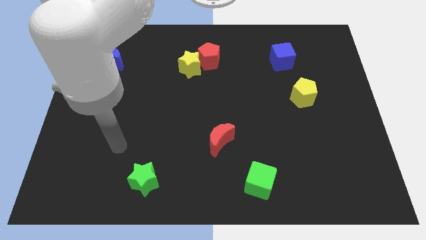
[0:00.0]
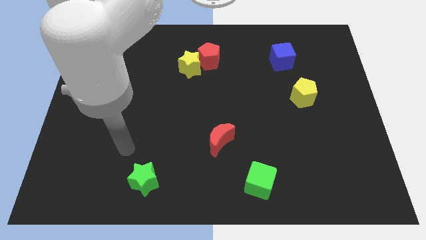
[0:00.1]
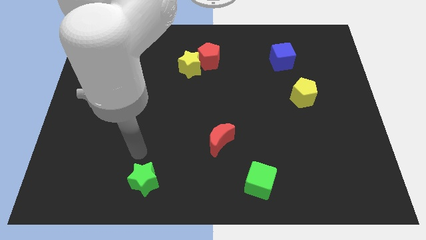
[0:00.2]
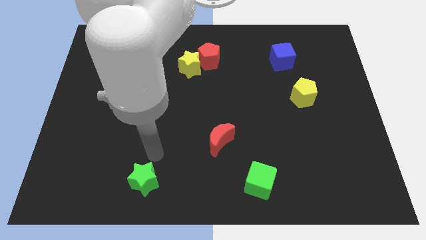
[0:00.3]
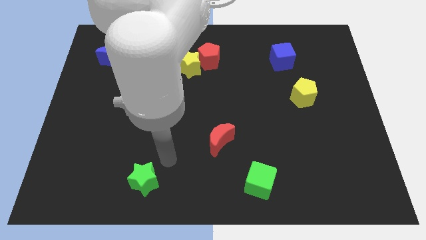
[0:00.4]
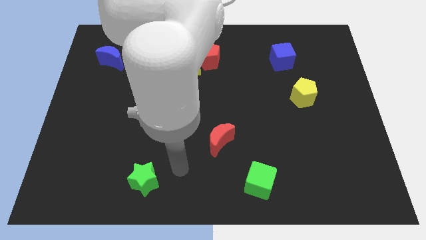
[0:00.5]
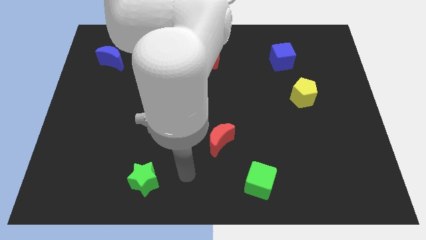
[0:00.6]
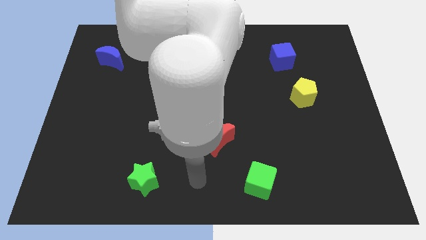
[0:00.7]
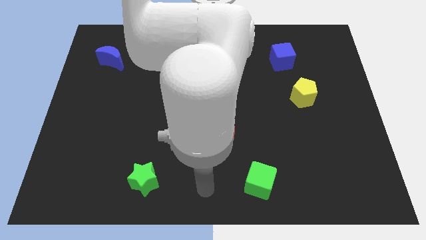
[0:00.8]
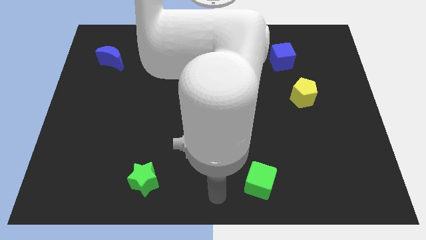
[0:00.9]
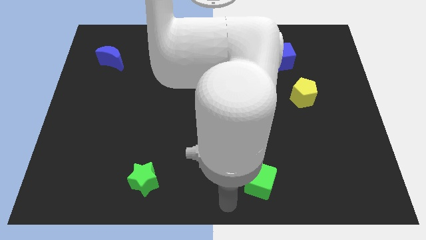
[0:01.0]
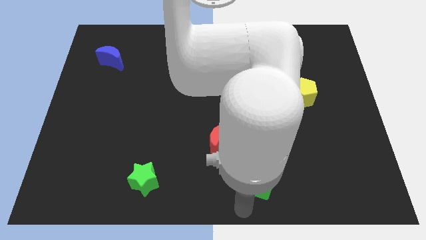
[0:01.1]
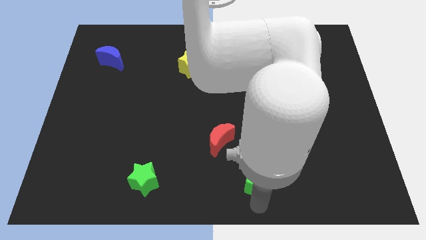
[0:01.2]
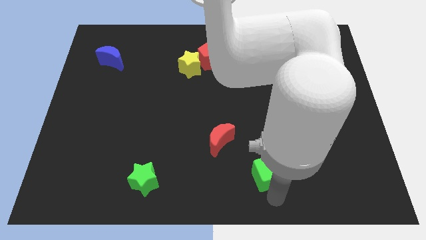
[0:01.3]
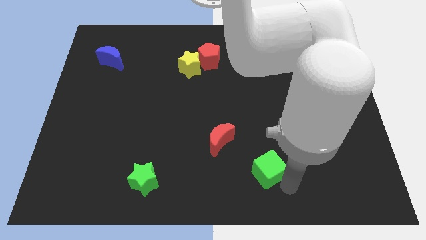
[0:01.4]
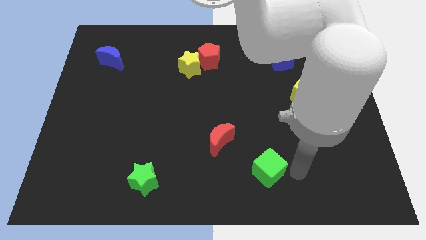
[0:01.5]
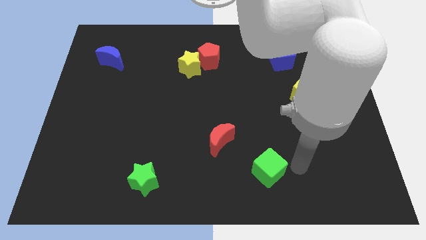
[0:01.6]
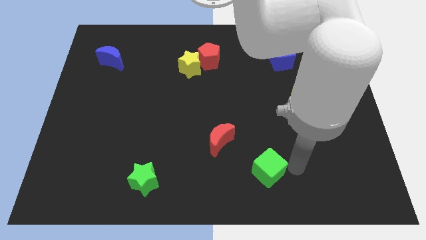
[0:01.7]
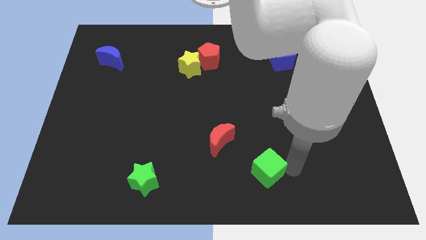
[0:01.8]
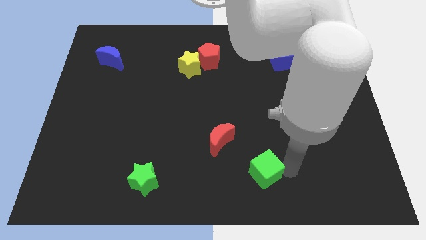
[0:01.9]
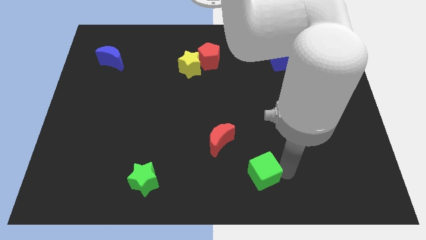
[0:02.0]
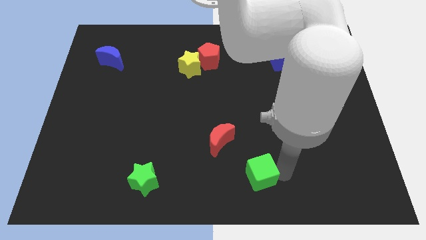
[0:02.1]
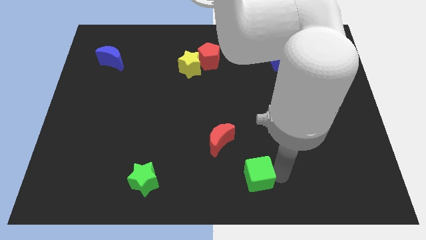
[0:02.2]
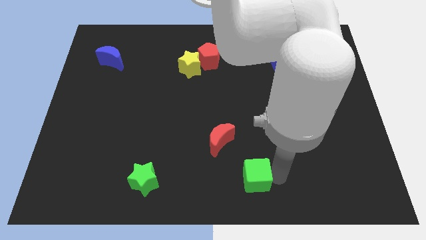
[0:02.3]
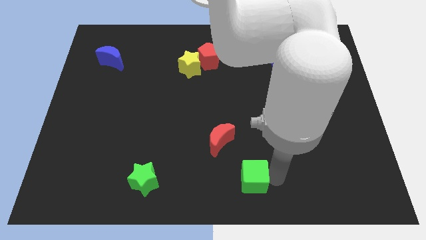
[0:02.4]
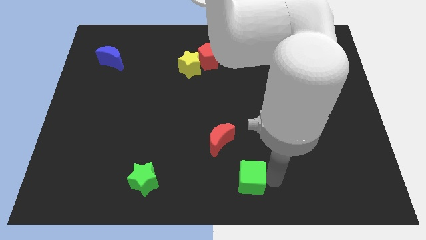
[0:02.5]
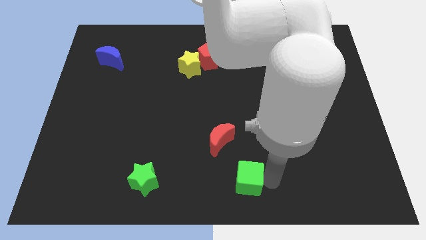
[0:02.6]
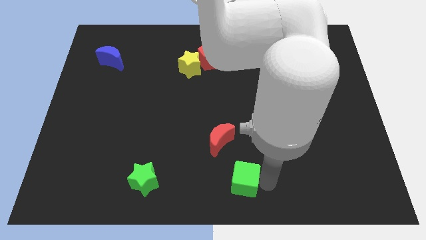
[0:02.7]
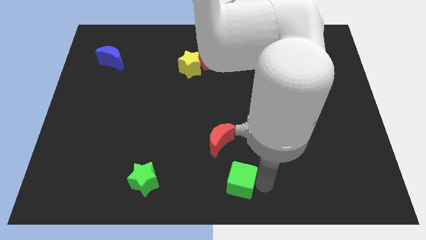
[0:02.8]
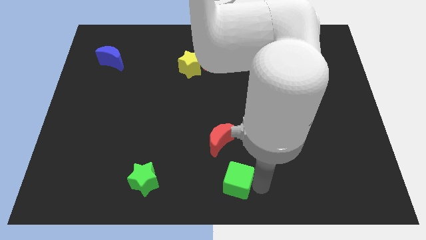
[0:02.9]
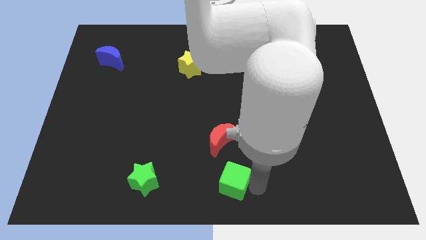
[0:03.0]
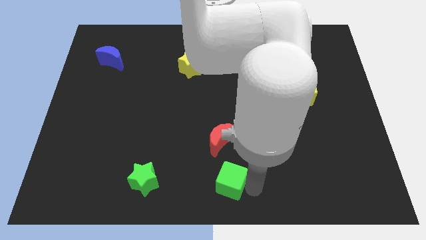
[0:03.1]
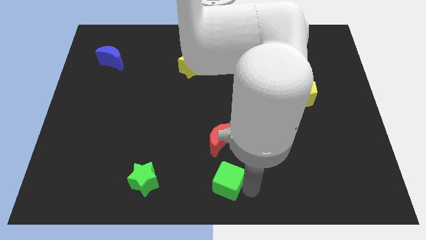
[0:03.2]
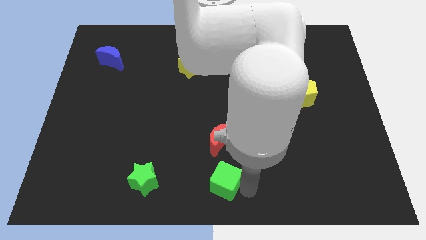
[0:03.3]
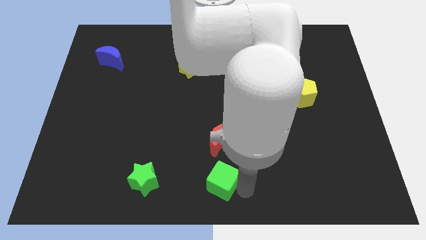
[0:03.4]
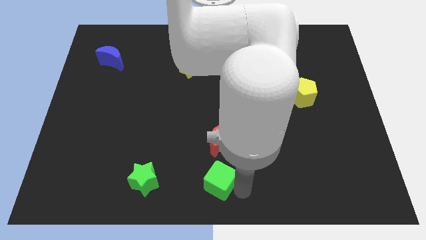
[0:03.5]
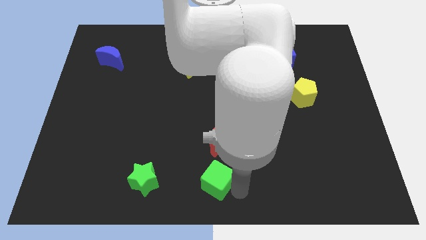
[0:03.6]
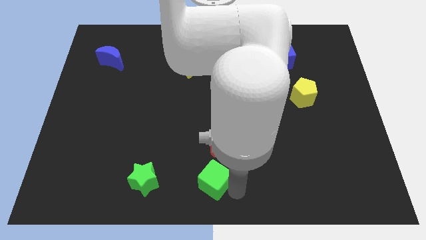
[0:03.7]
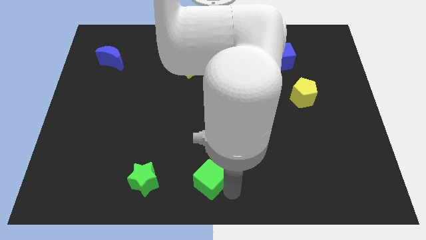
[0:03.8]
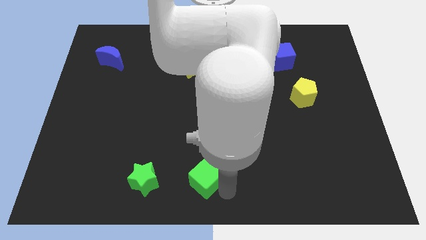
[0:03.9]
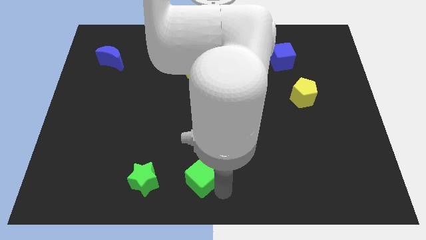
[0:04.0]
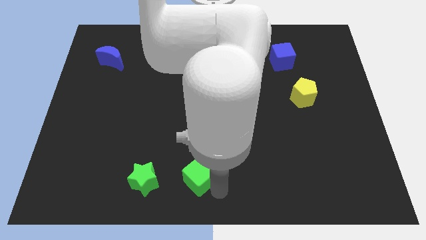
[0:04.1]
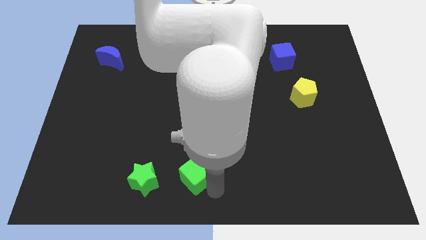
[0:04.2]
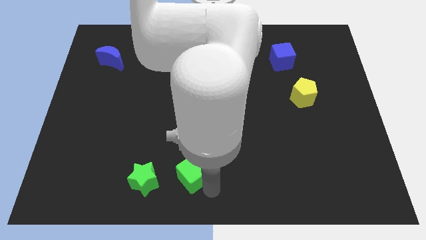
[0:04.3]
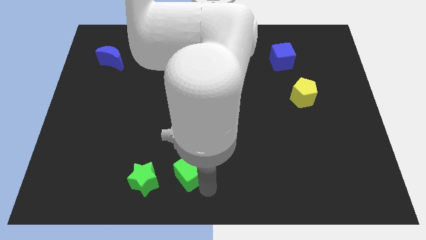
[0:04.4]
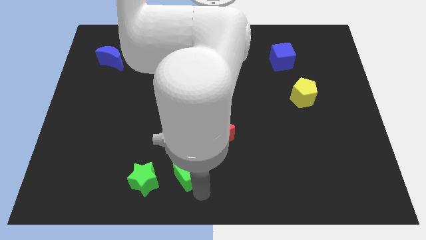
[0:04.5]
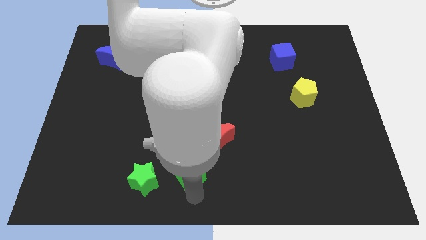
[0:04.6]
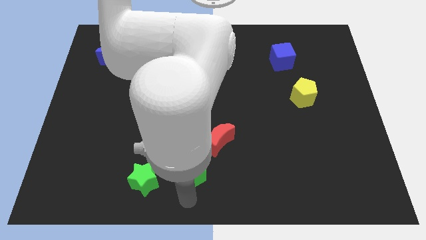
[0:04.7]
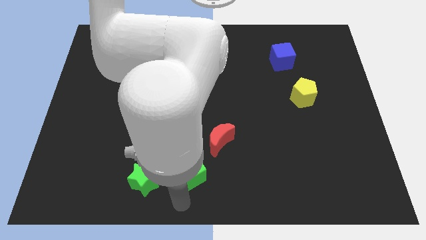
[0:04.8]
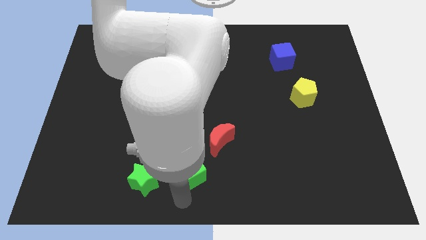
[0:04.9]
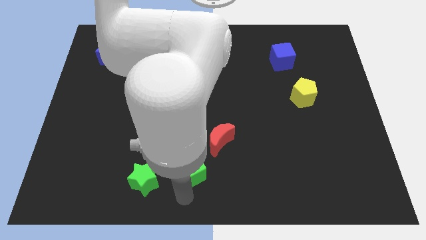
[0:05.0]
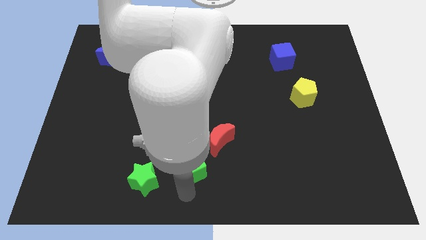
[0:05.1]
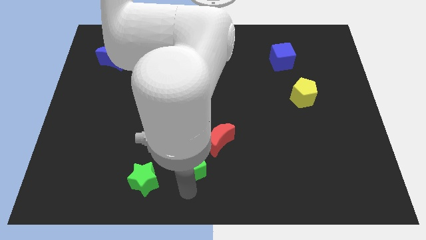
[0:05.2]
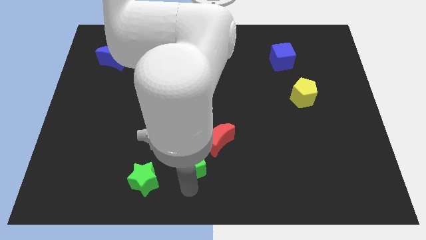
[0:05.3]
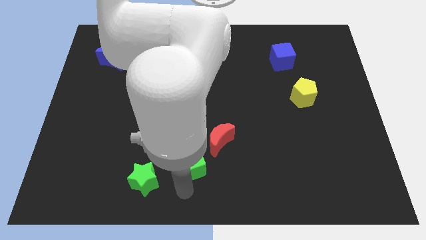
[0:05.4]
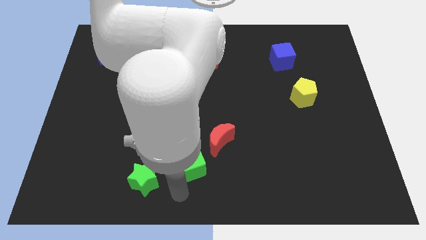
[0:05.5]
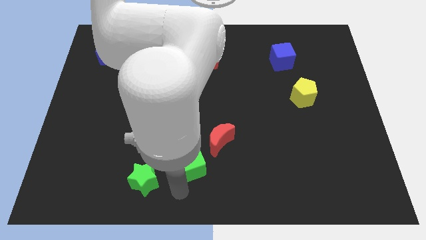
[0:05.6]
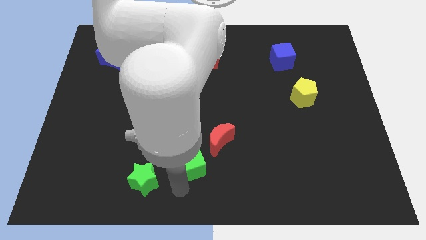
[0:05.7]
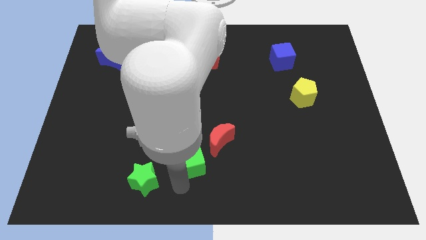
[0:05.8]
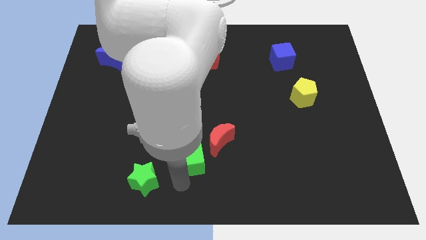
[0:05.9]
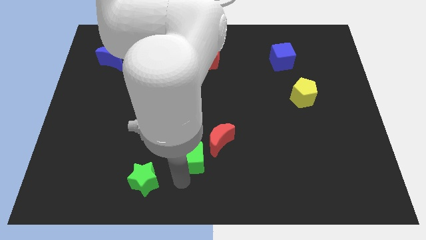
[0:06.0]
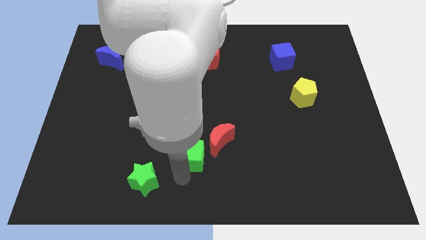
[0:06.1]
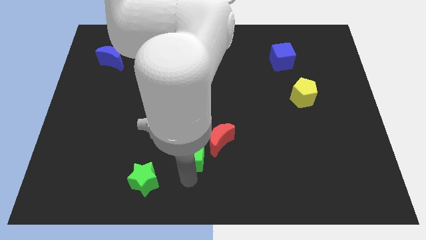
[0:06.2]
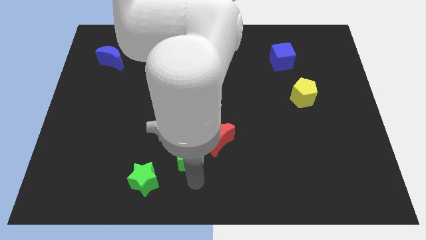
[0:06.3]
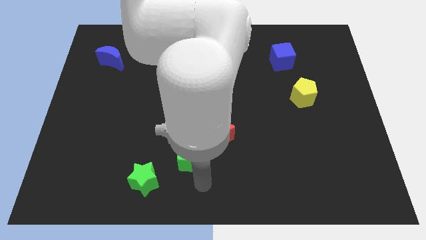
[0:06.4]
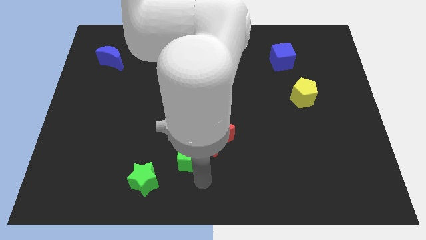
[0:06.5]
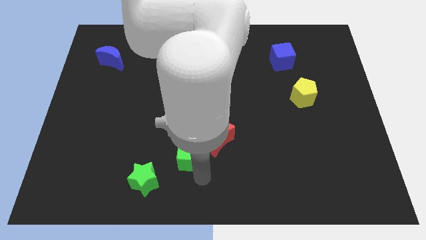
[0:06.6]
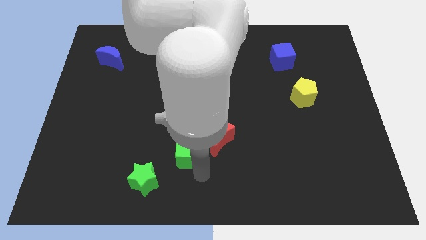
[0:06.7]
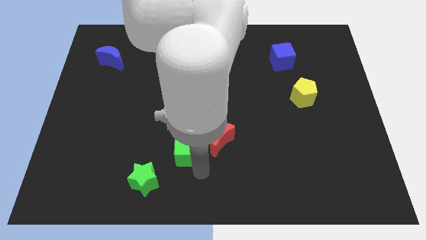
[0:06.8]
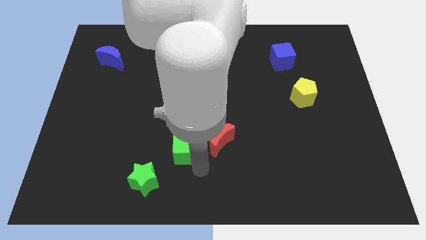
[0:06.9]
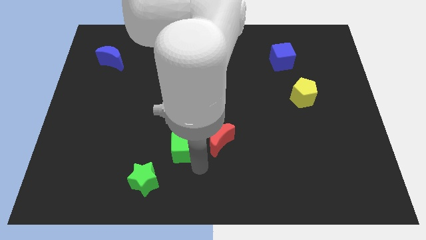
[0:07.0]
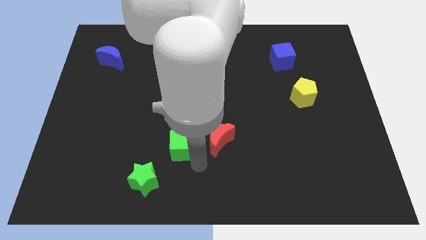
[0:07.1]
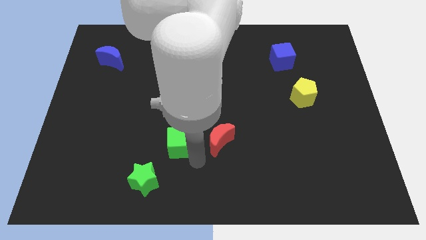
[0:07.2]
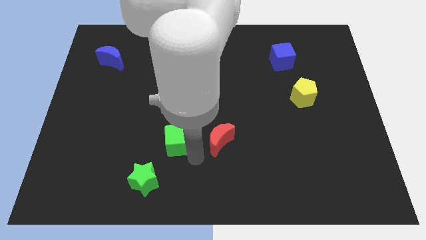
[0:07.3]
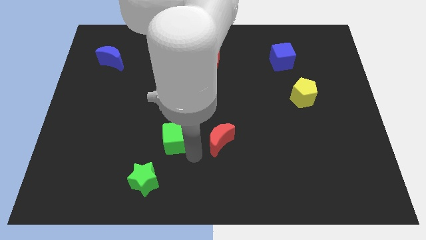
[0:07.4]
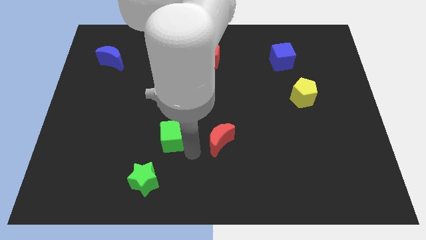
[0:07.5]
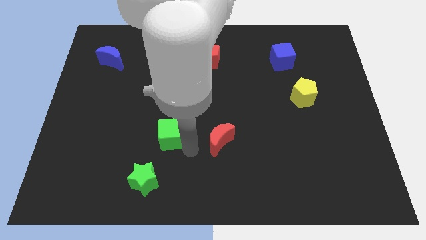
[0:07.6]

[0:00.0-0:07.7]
move the green cube up and left
